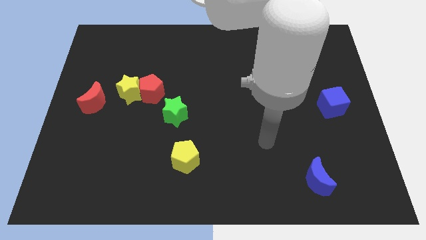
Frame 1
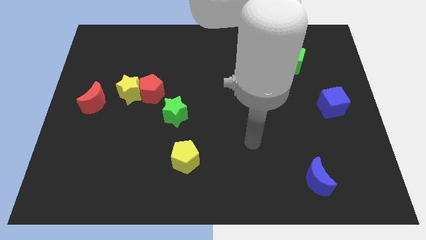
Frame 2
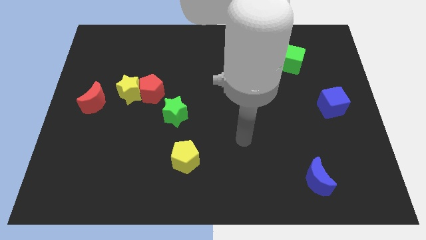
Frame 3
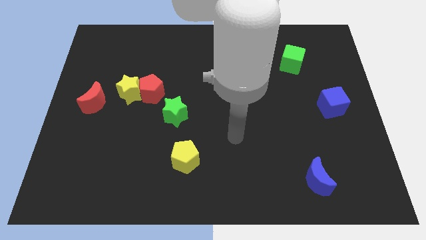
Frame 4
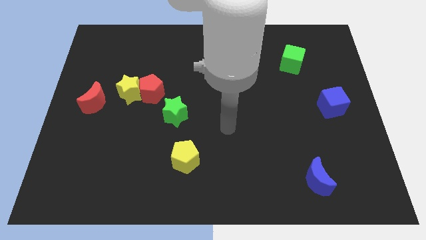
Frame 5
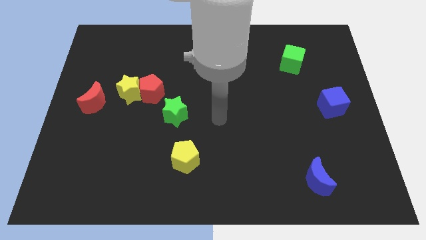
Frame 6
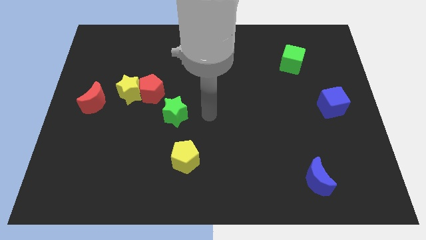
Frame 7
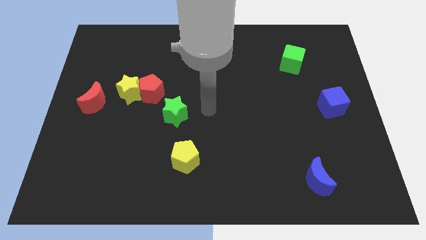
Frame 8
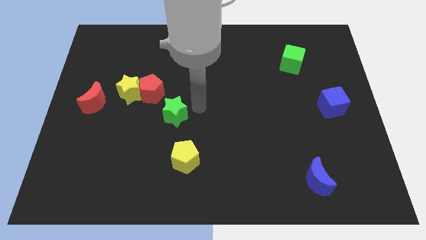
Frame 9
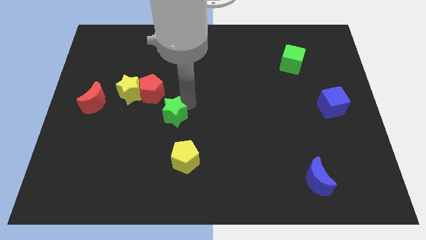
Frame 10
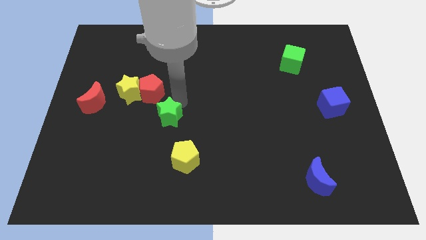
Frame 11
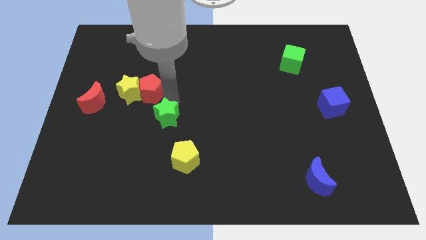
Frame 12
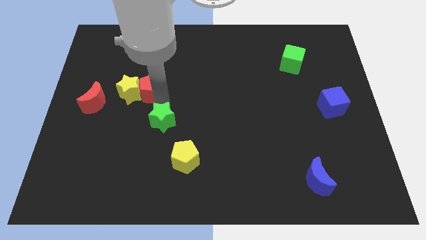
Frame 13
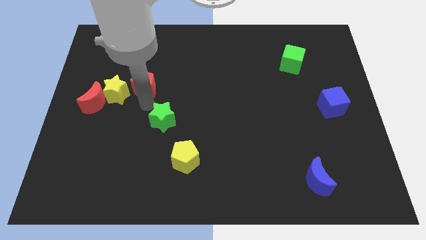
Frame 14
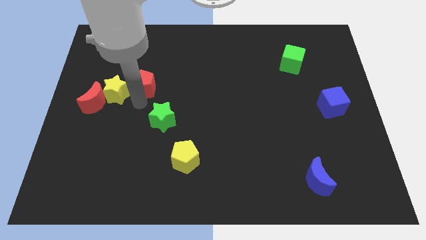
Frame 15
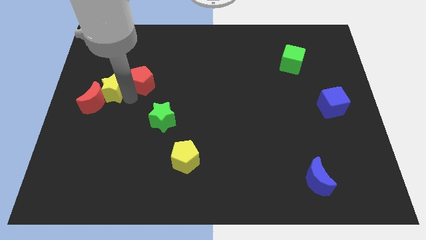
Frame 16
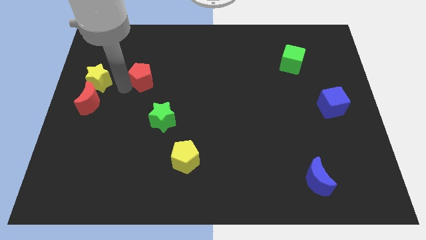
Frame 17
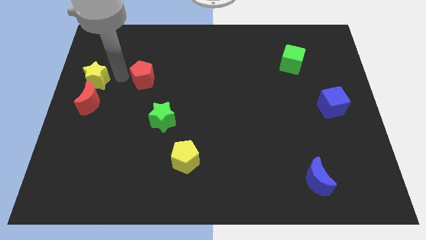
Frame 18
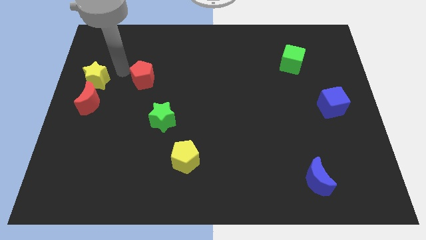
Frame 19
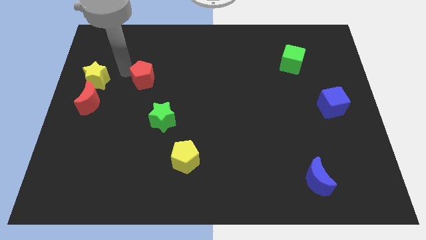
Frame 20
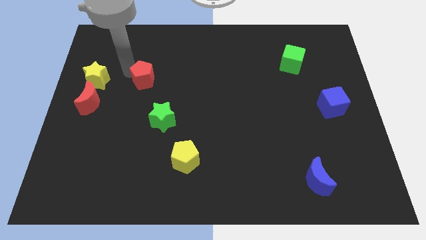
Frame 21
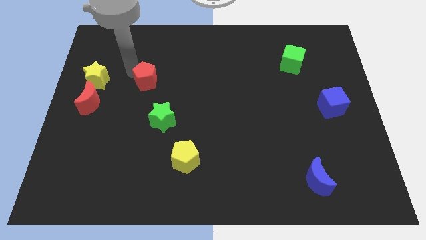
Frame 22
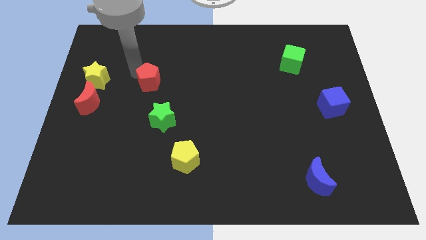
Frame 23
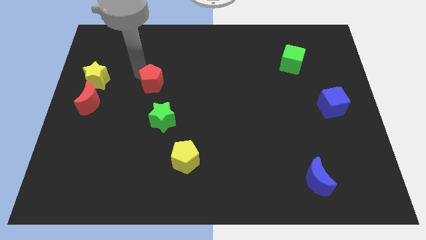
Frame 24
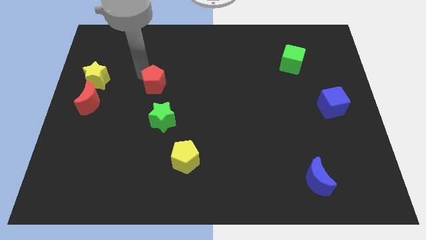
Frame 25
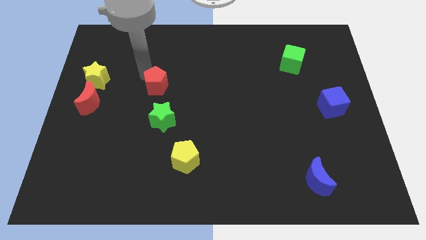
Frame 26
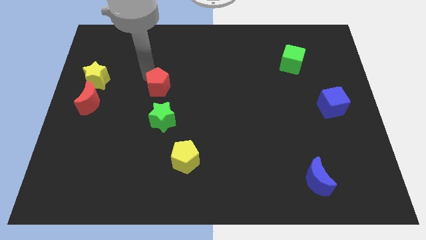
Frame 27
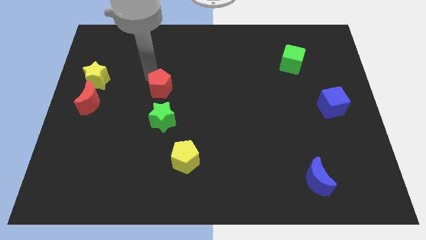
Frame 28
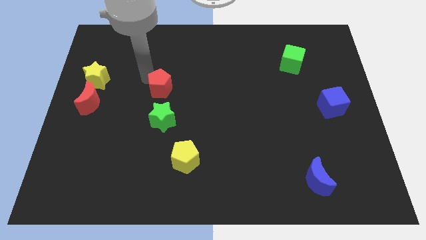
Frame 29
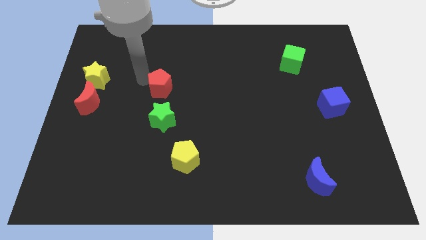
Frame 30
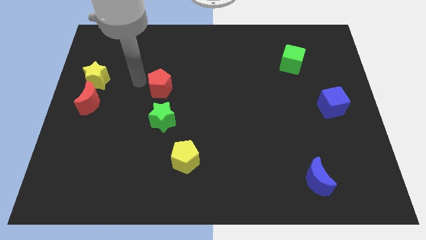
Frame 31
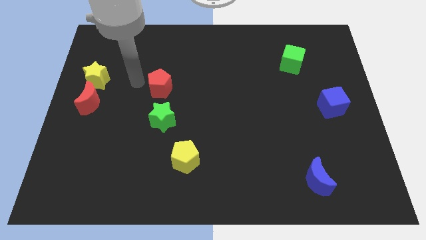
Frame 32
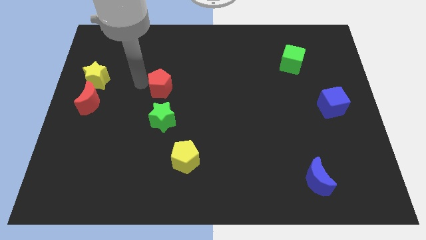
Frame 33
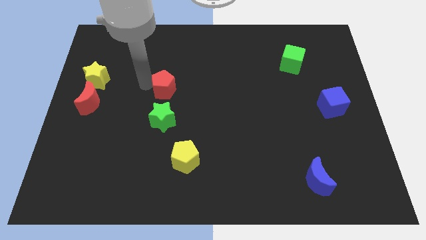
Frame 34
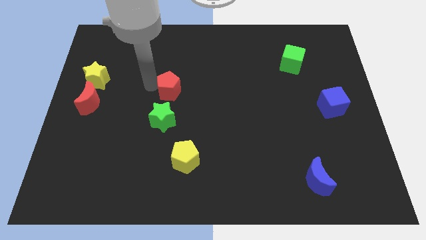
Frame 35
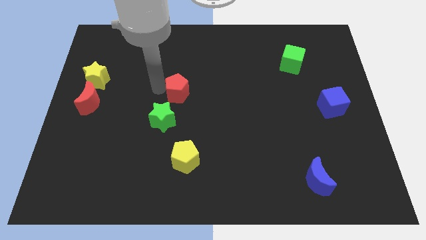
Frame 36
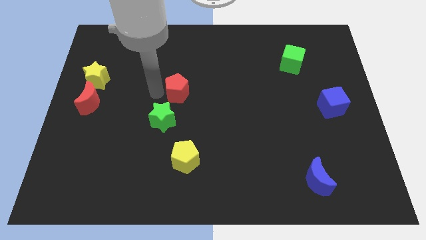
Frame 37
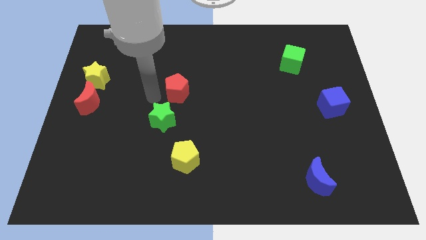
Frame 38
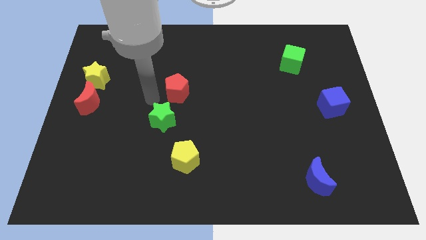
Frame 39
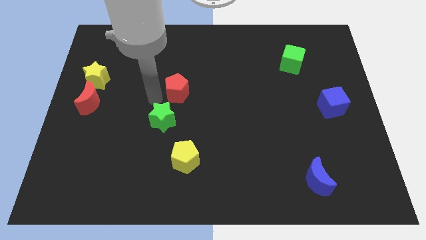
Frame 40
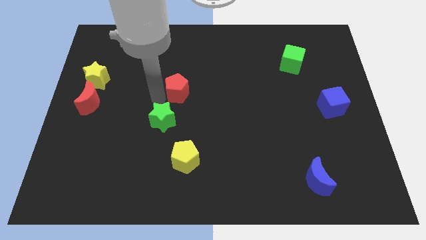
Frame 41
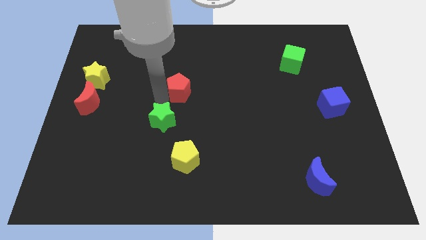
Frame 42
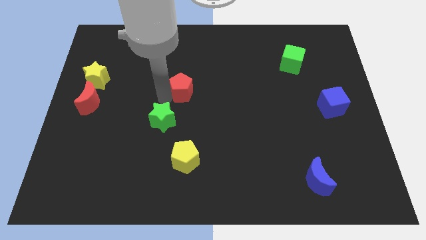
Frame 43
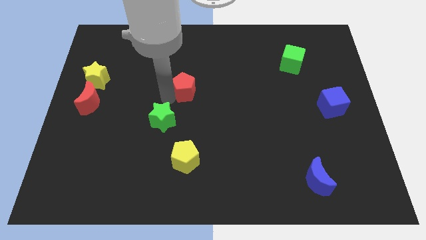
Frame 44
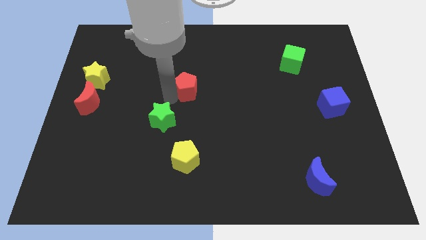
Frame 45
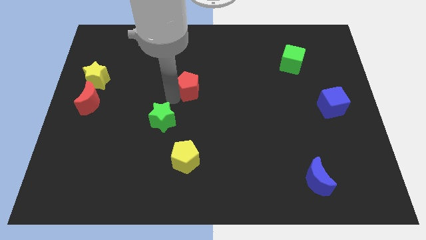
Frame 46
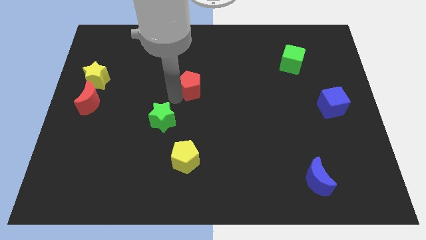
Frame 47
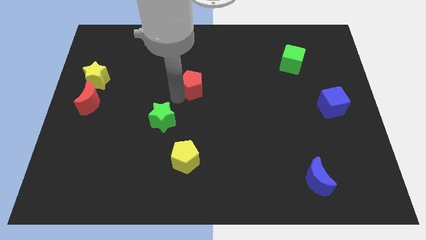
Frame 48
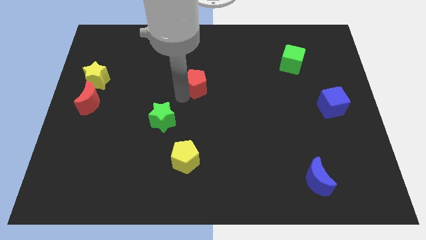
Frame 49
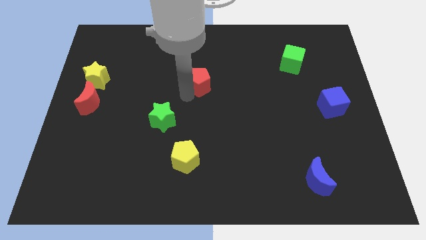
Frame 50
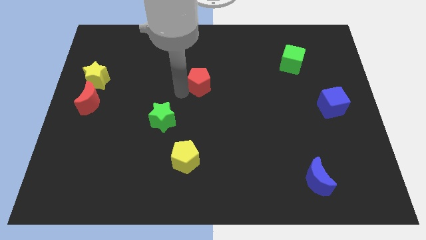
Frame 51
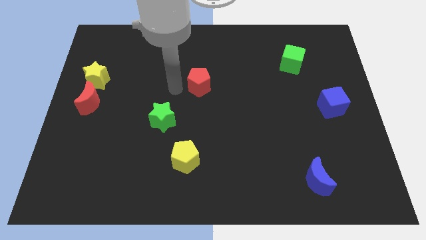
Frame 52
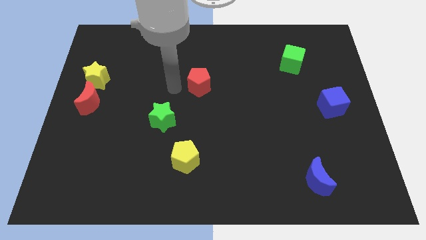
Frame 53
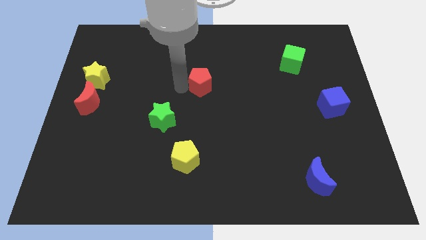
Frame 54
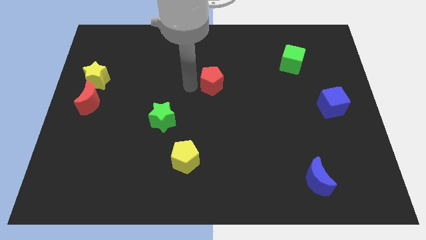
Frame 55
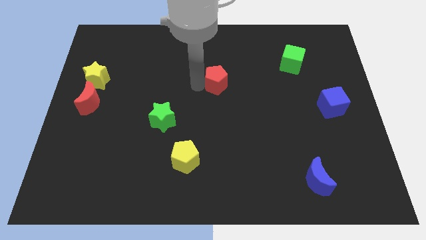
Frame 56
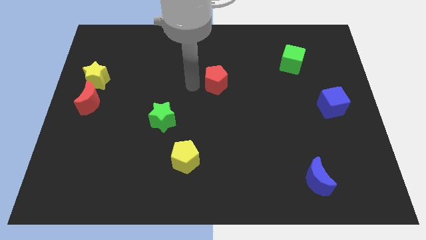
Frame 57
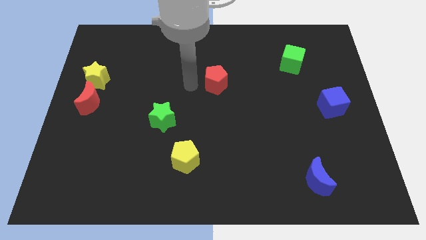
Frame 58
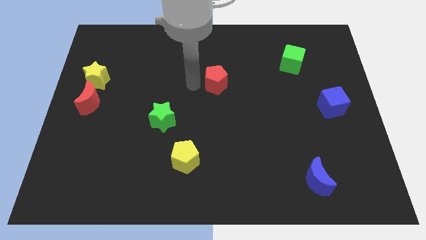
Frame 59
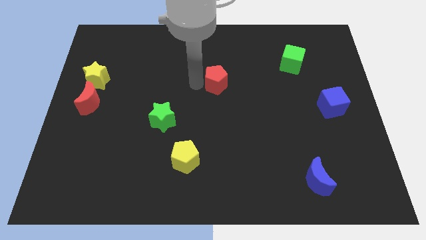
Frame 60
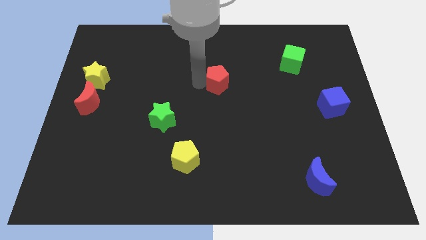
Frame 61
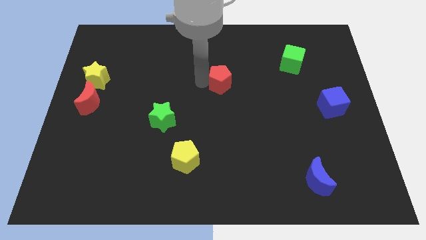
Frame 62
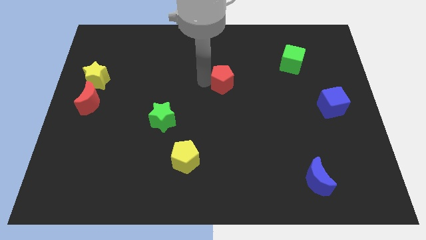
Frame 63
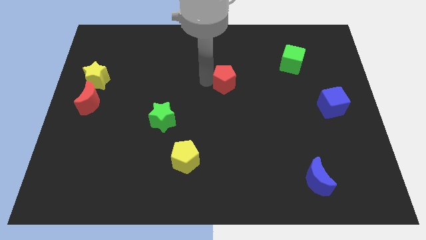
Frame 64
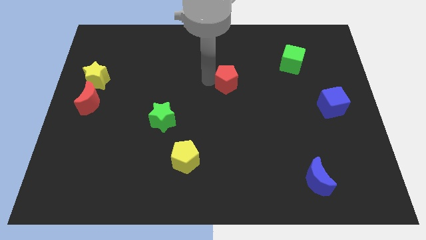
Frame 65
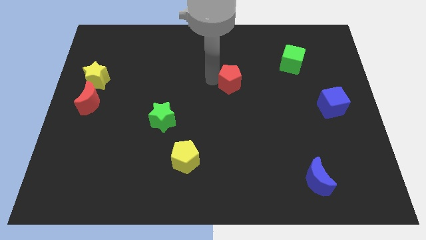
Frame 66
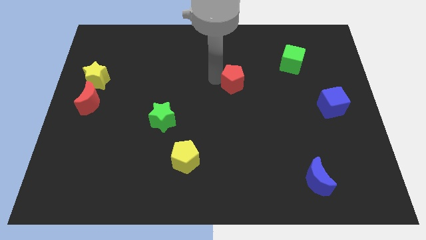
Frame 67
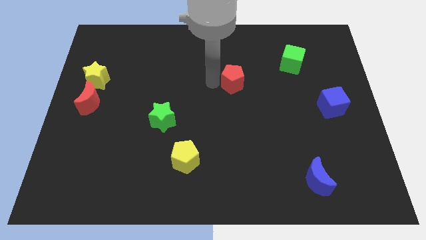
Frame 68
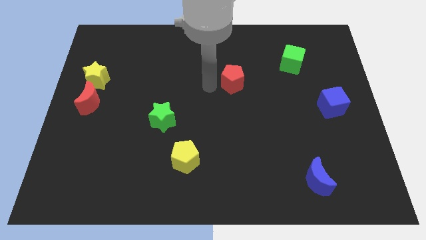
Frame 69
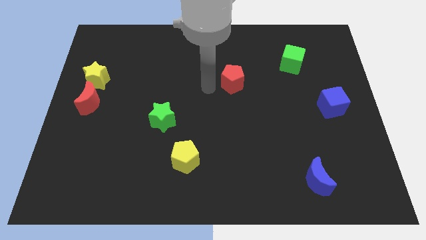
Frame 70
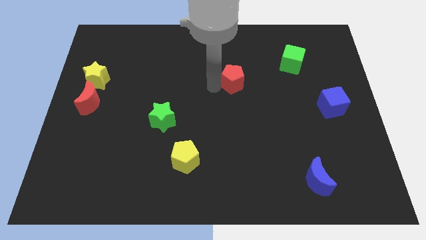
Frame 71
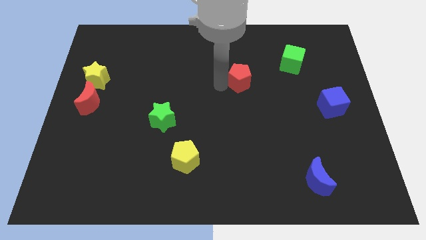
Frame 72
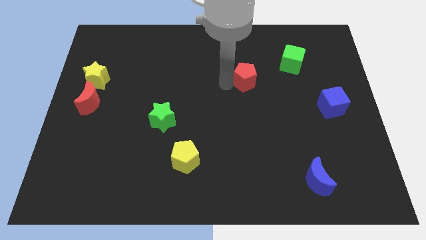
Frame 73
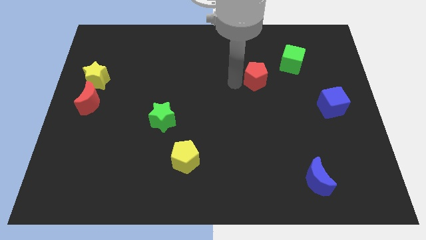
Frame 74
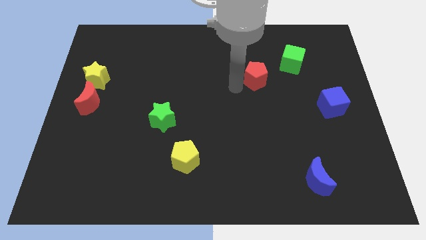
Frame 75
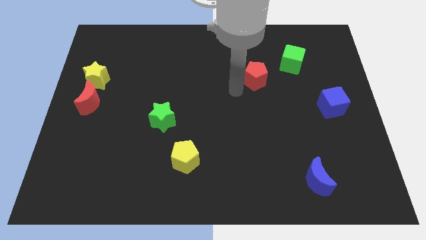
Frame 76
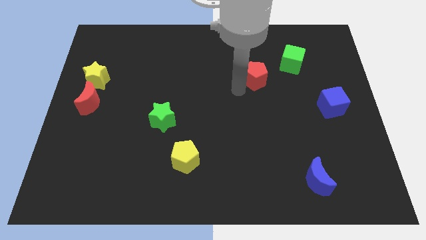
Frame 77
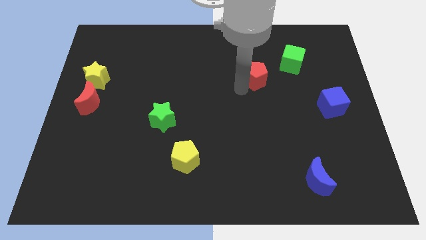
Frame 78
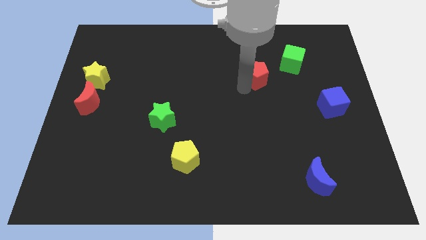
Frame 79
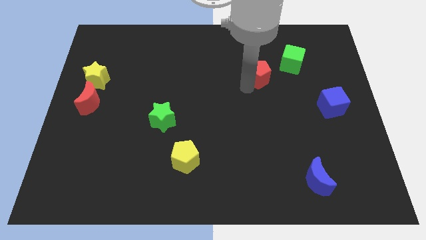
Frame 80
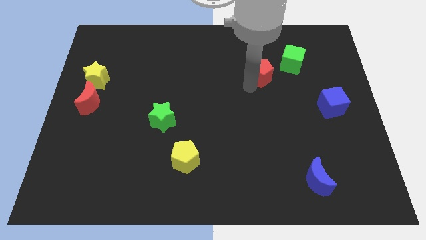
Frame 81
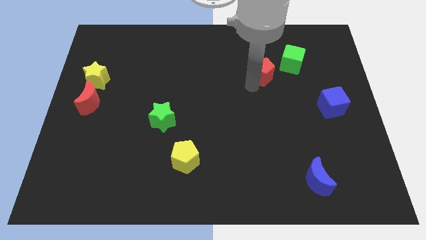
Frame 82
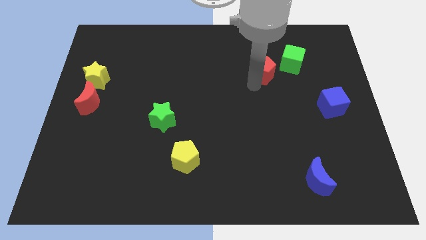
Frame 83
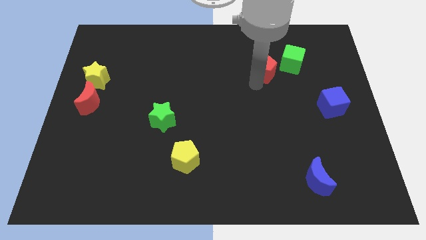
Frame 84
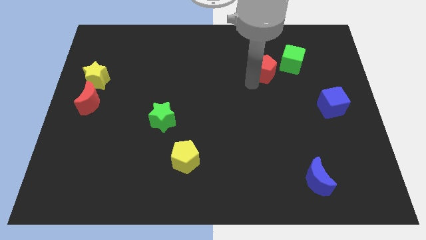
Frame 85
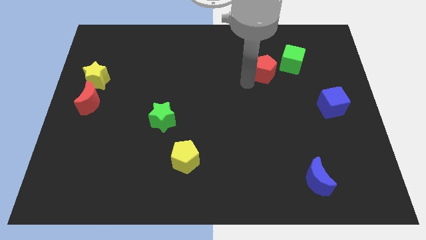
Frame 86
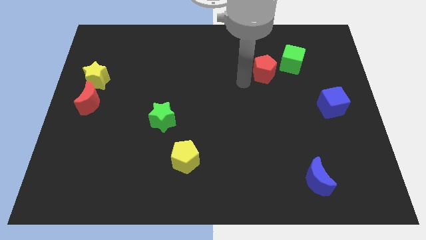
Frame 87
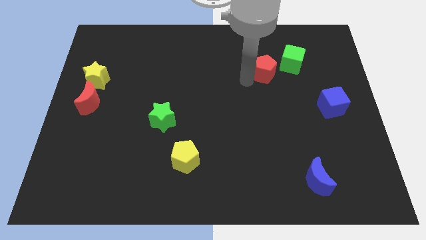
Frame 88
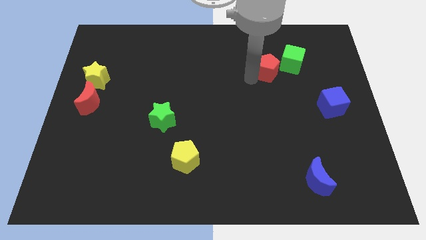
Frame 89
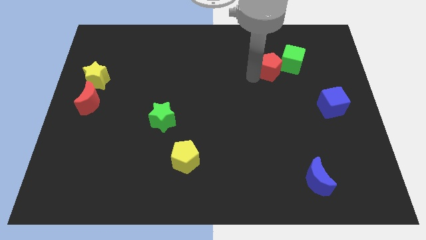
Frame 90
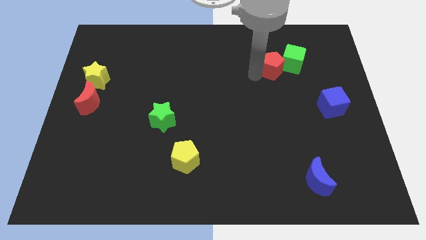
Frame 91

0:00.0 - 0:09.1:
slide the red pentagon close to the green cube
